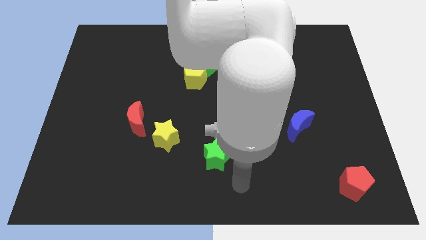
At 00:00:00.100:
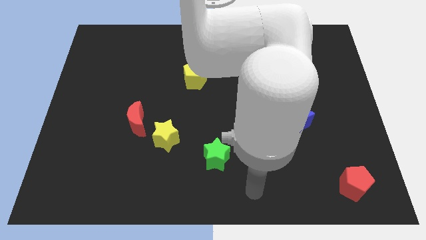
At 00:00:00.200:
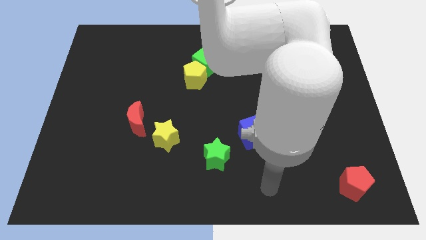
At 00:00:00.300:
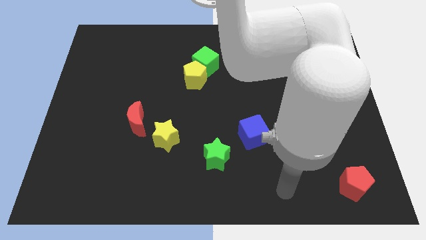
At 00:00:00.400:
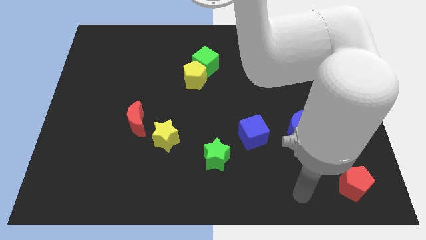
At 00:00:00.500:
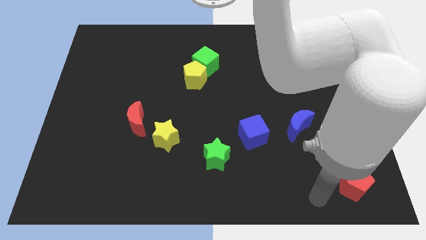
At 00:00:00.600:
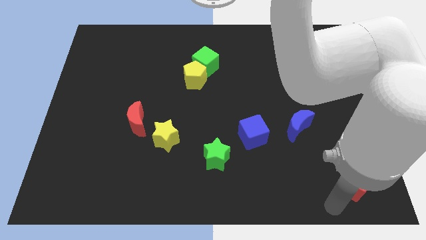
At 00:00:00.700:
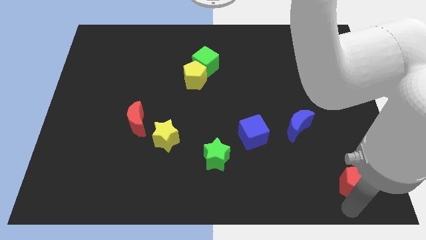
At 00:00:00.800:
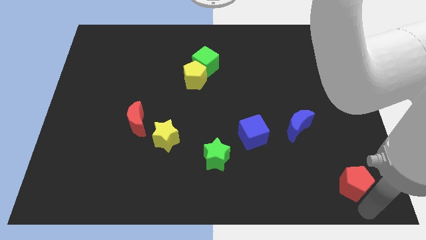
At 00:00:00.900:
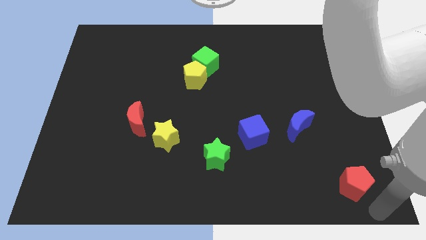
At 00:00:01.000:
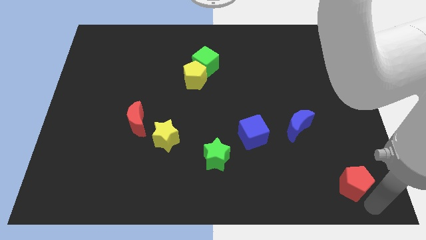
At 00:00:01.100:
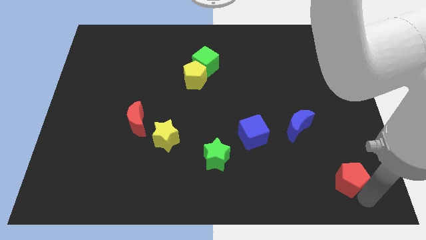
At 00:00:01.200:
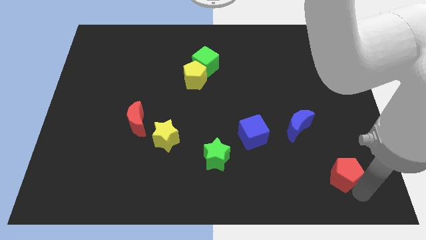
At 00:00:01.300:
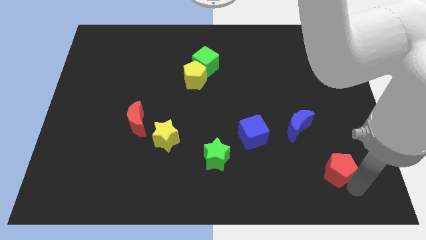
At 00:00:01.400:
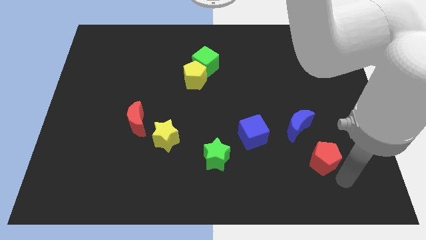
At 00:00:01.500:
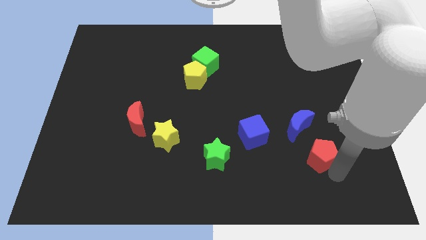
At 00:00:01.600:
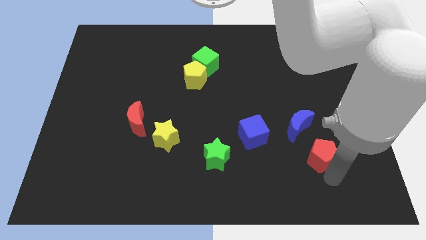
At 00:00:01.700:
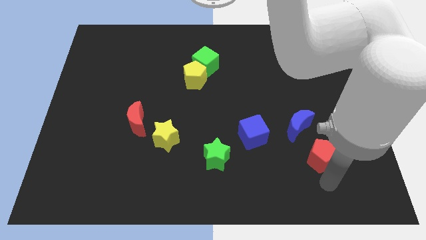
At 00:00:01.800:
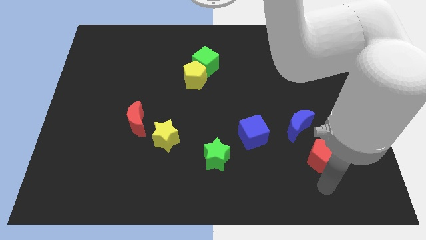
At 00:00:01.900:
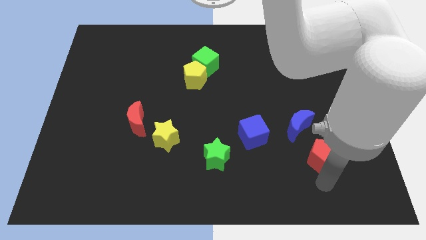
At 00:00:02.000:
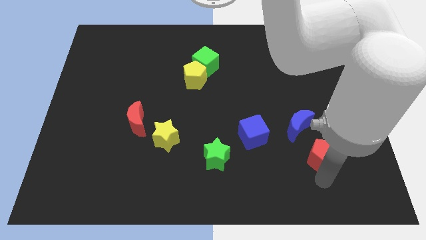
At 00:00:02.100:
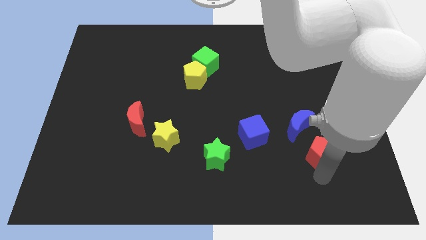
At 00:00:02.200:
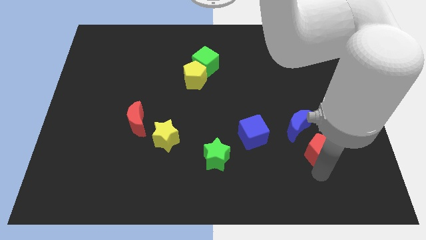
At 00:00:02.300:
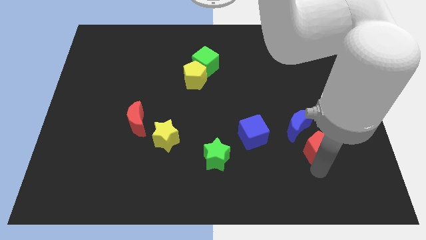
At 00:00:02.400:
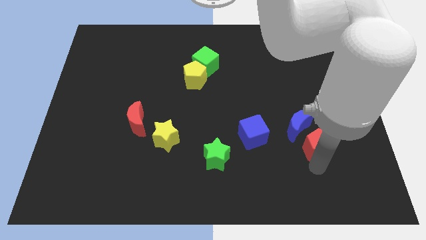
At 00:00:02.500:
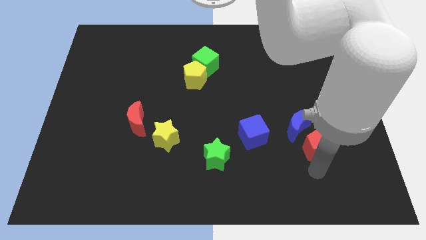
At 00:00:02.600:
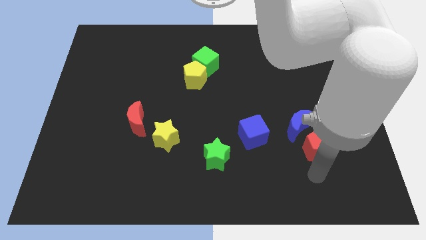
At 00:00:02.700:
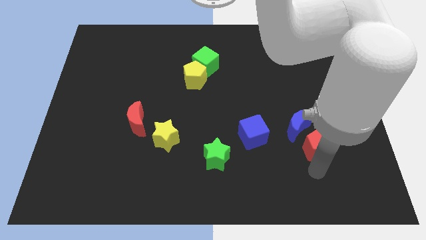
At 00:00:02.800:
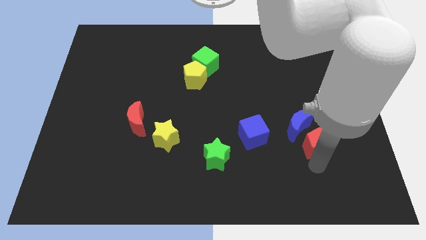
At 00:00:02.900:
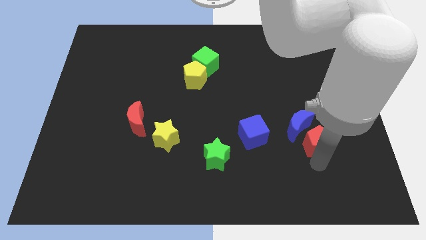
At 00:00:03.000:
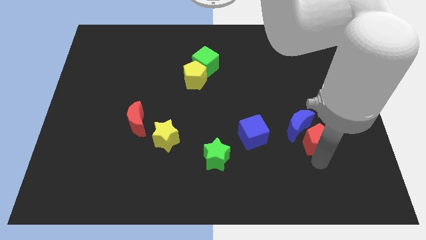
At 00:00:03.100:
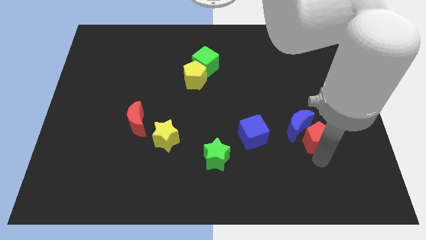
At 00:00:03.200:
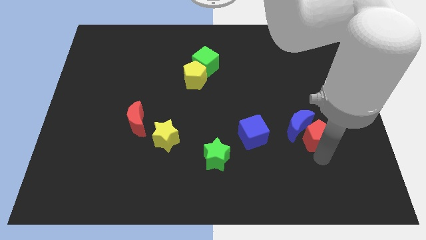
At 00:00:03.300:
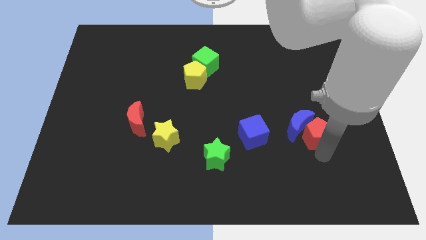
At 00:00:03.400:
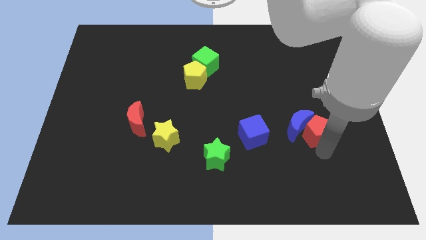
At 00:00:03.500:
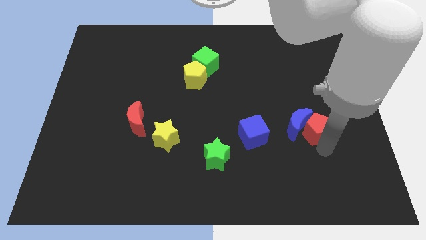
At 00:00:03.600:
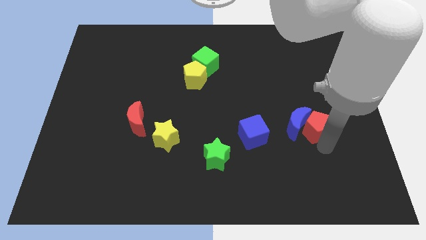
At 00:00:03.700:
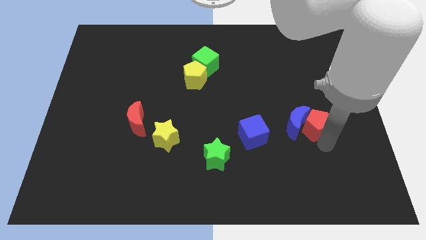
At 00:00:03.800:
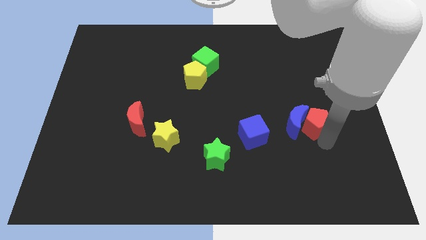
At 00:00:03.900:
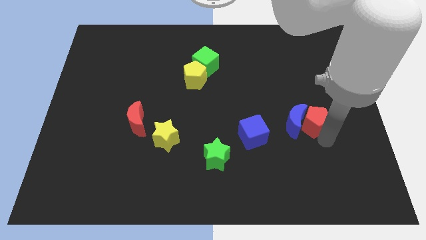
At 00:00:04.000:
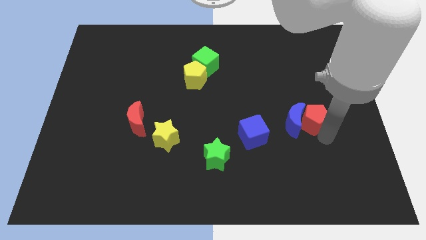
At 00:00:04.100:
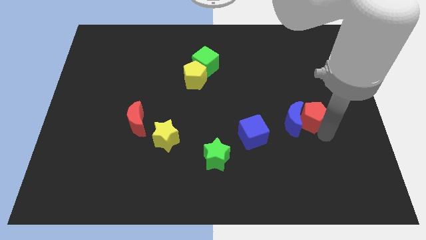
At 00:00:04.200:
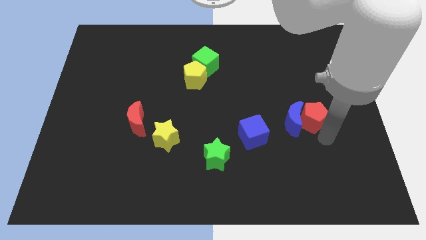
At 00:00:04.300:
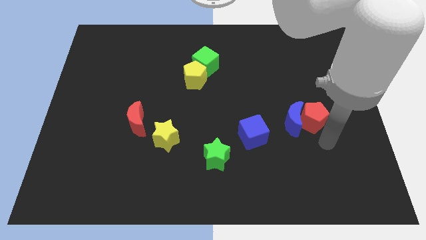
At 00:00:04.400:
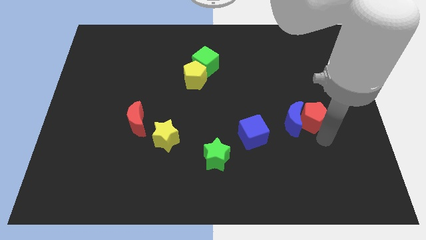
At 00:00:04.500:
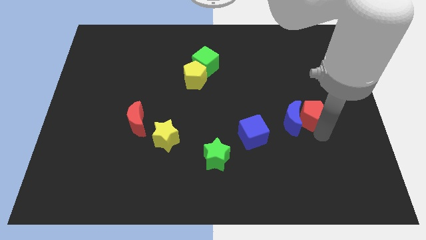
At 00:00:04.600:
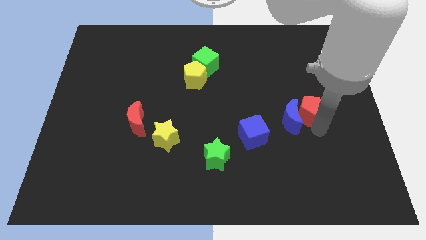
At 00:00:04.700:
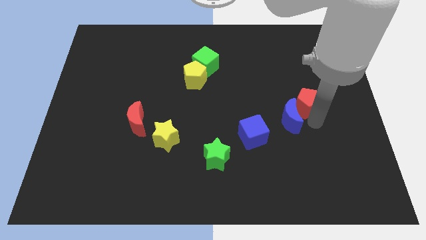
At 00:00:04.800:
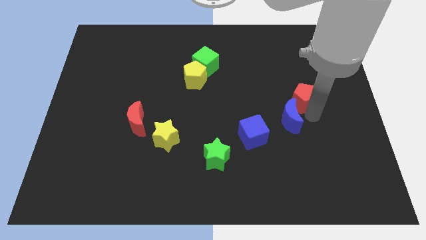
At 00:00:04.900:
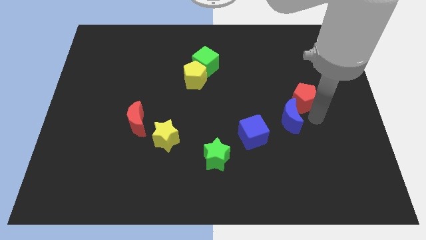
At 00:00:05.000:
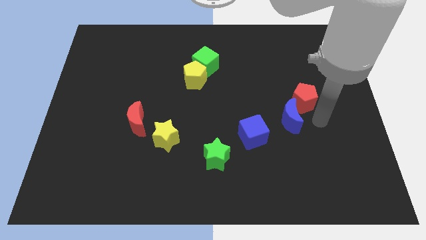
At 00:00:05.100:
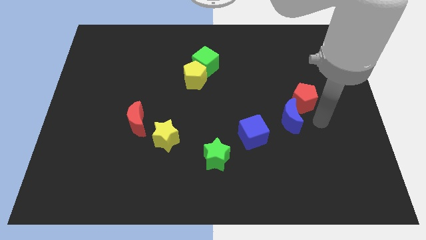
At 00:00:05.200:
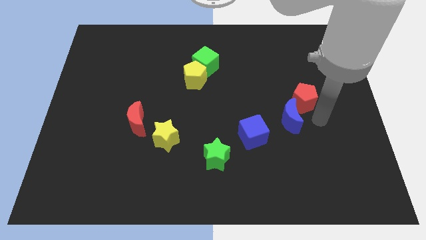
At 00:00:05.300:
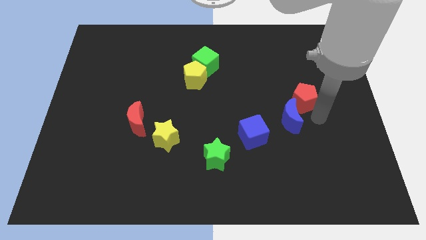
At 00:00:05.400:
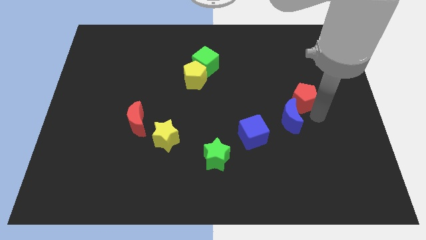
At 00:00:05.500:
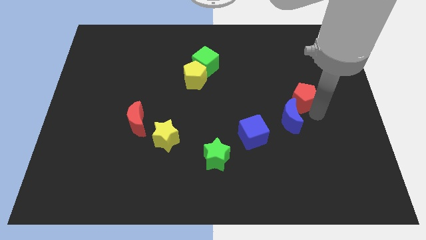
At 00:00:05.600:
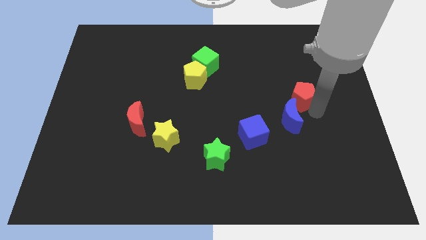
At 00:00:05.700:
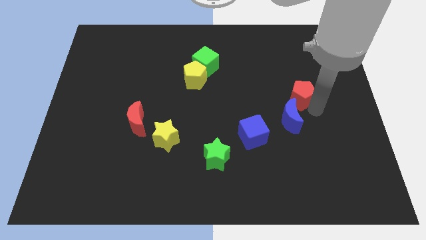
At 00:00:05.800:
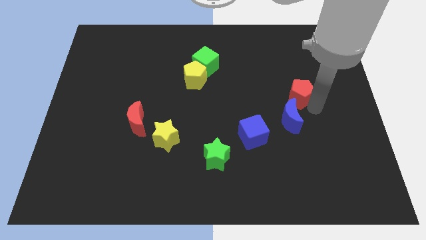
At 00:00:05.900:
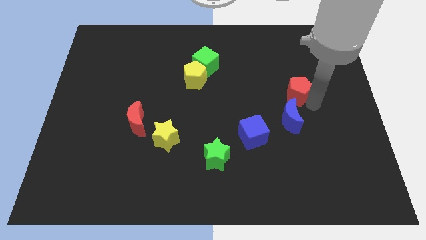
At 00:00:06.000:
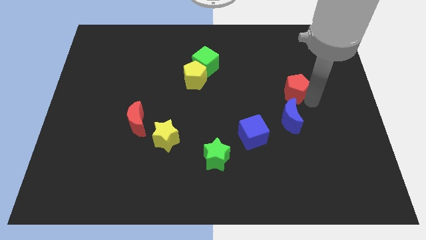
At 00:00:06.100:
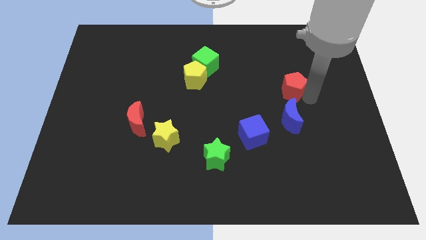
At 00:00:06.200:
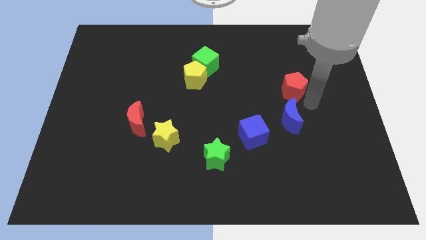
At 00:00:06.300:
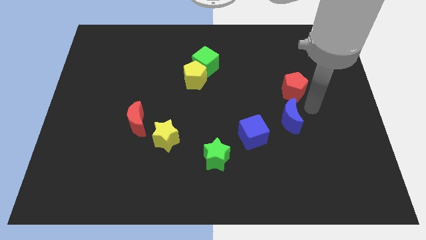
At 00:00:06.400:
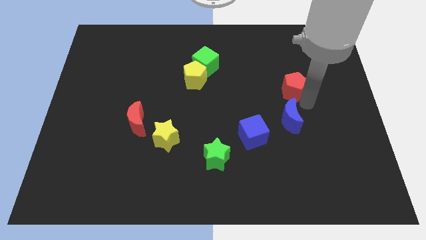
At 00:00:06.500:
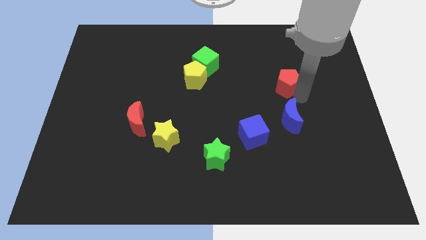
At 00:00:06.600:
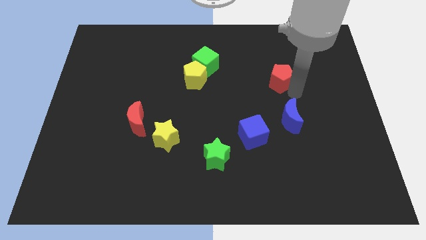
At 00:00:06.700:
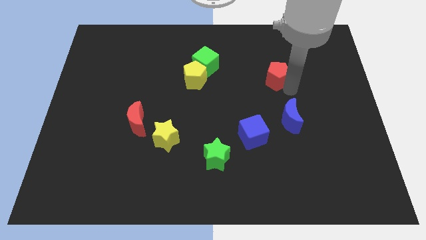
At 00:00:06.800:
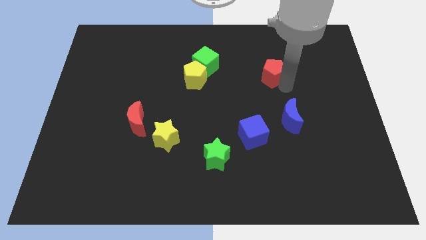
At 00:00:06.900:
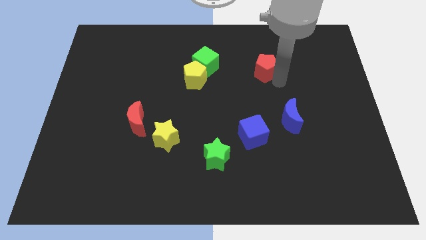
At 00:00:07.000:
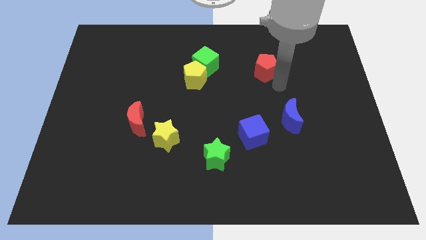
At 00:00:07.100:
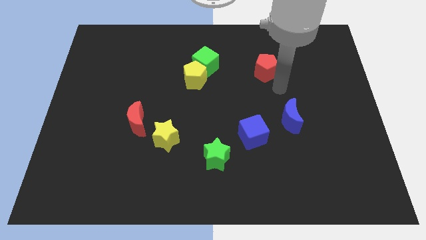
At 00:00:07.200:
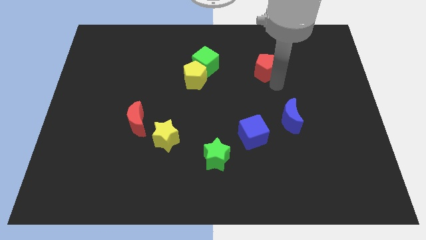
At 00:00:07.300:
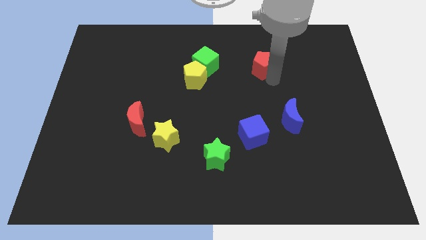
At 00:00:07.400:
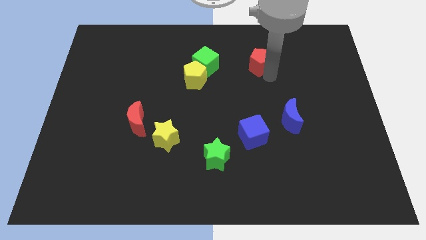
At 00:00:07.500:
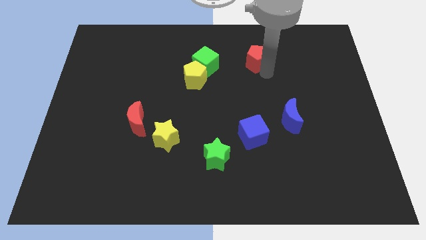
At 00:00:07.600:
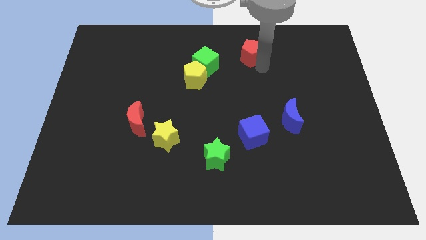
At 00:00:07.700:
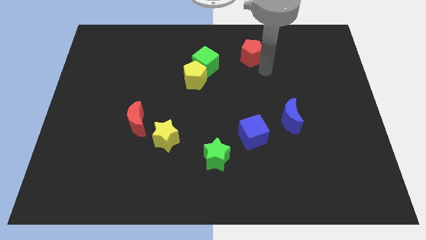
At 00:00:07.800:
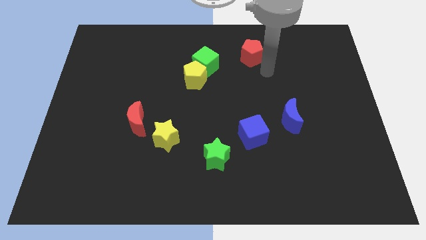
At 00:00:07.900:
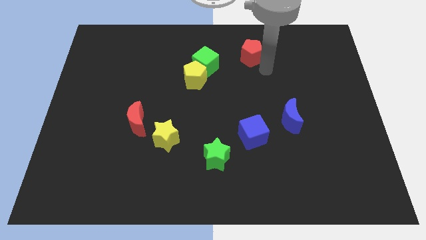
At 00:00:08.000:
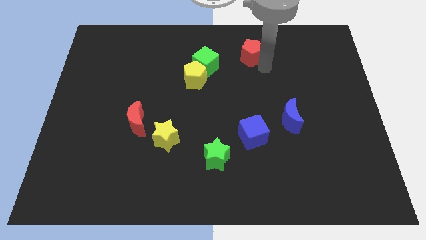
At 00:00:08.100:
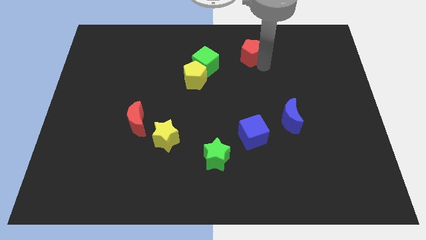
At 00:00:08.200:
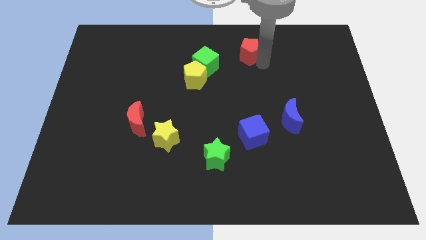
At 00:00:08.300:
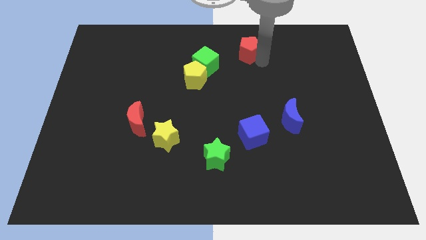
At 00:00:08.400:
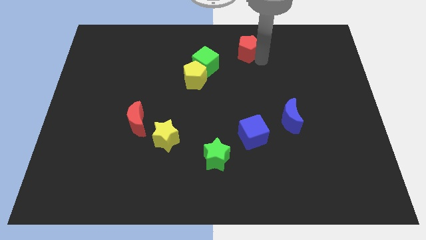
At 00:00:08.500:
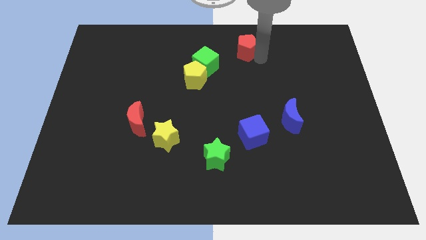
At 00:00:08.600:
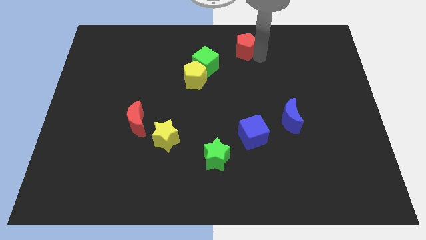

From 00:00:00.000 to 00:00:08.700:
move the red pentagon to the towards your base
